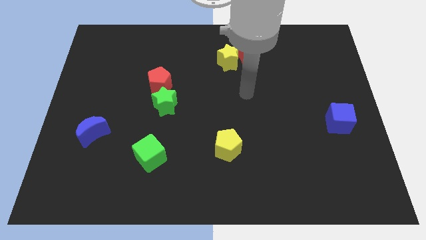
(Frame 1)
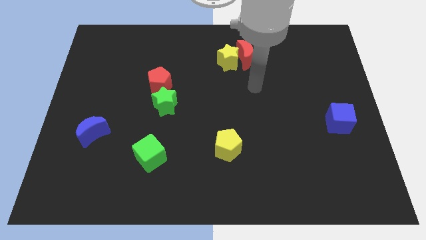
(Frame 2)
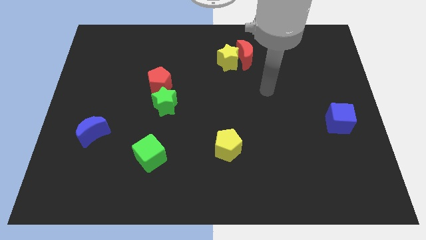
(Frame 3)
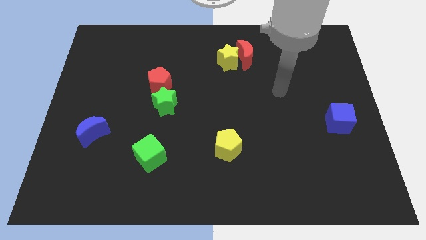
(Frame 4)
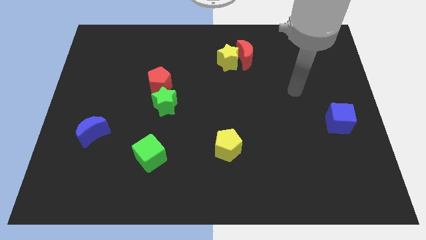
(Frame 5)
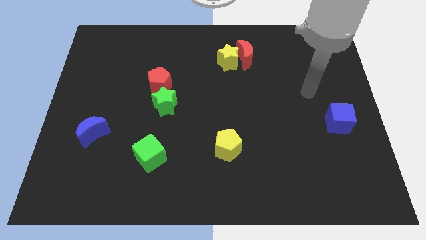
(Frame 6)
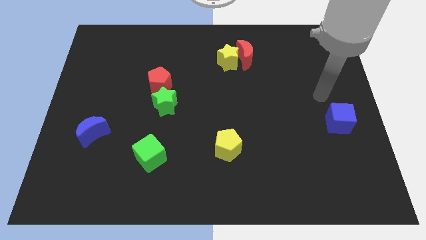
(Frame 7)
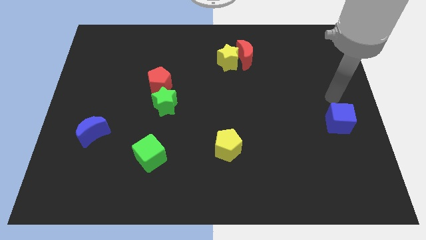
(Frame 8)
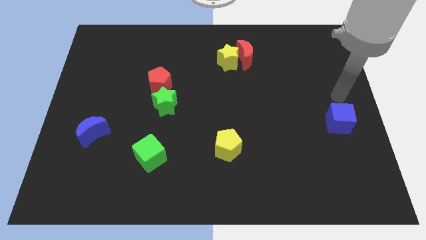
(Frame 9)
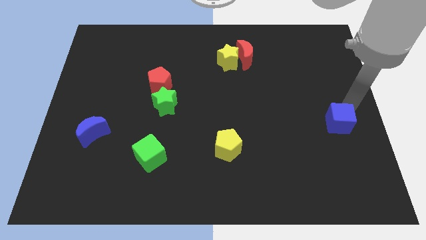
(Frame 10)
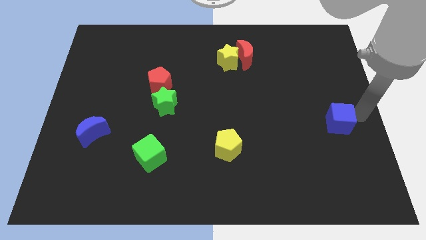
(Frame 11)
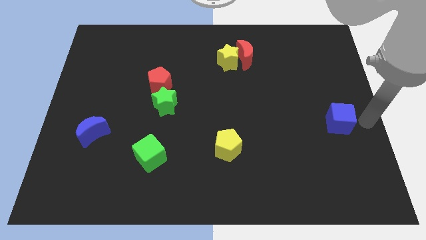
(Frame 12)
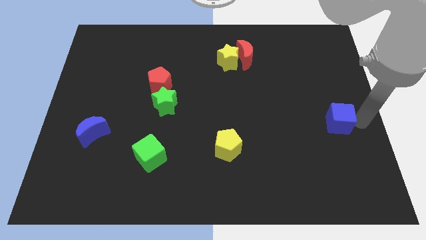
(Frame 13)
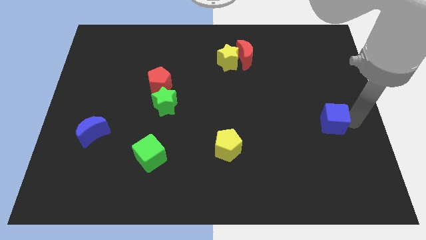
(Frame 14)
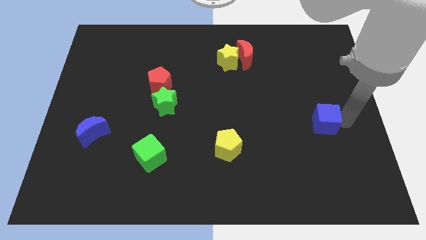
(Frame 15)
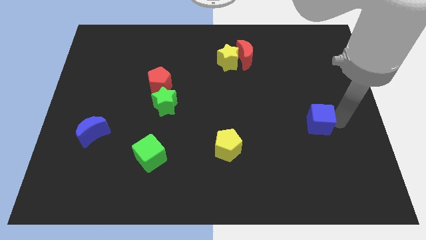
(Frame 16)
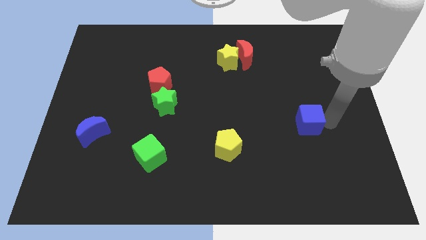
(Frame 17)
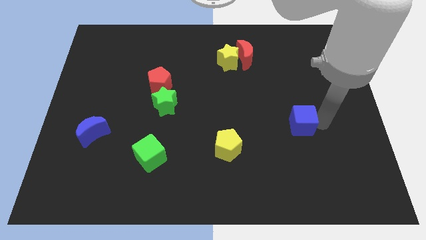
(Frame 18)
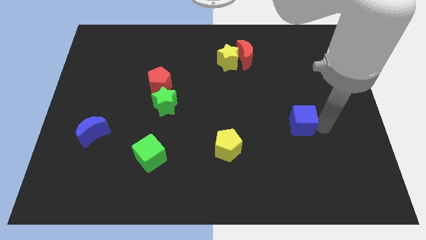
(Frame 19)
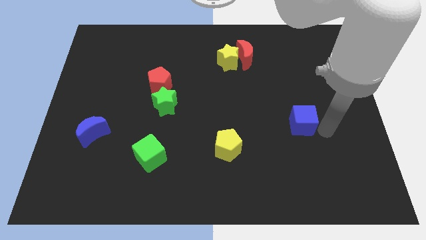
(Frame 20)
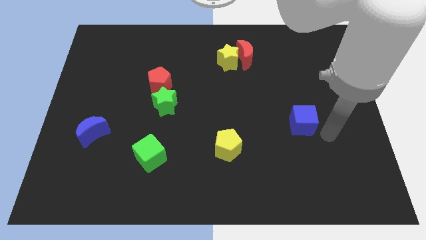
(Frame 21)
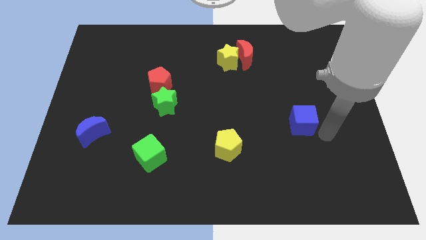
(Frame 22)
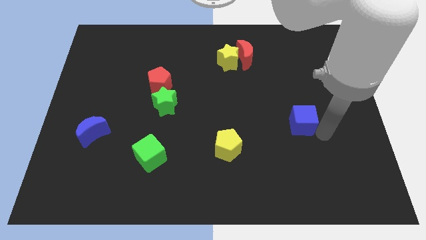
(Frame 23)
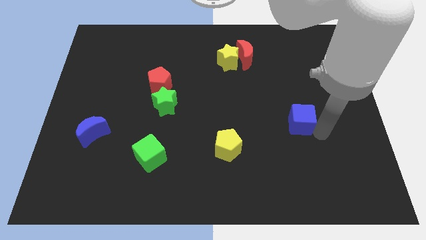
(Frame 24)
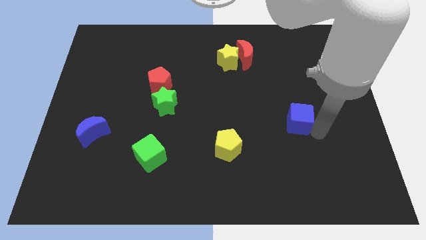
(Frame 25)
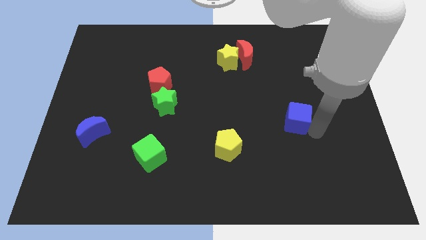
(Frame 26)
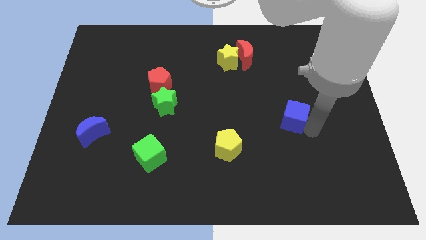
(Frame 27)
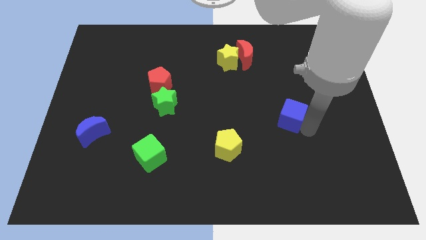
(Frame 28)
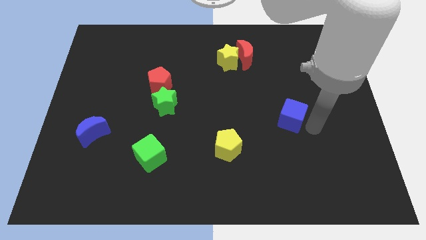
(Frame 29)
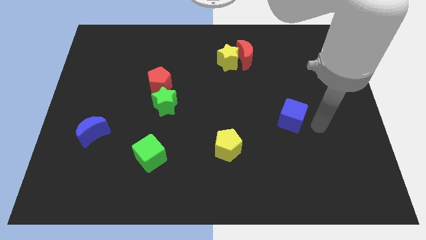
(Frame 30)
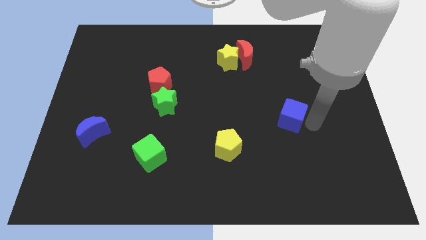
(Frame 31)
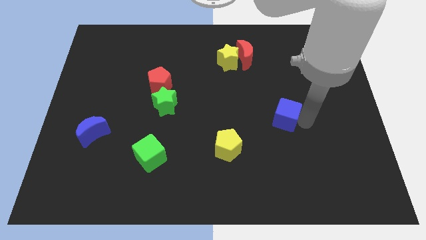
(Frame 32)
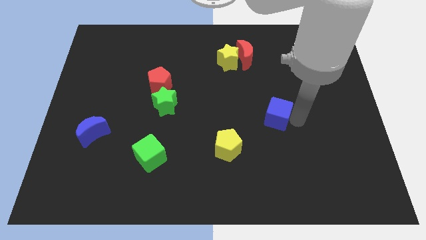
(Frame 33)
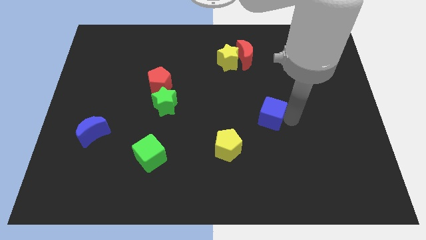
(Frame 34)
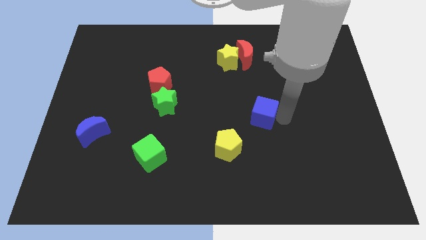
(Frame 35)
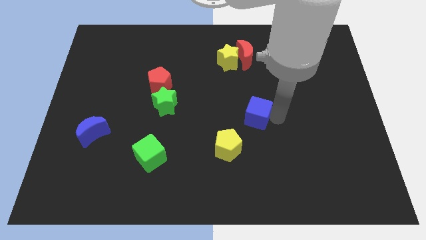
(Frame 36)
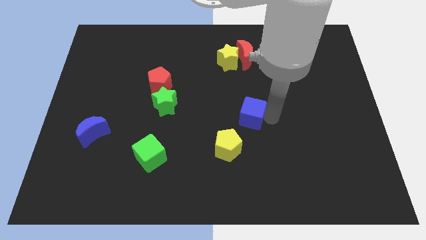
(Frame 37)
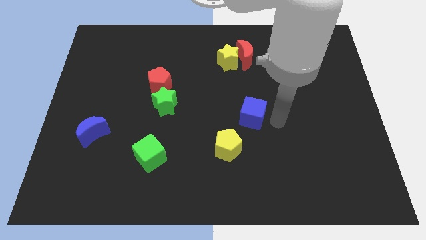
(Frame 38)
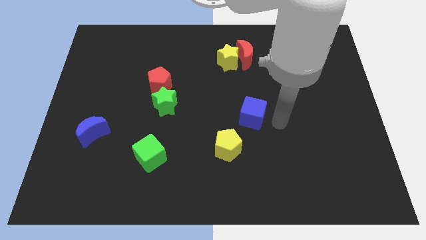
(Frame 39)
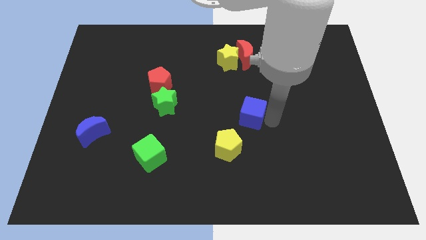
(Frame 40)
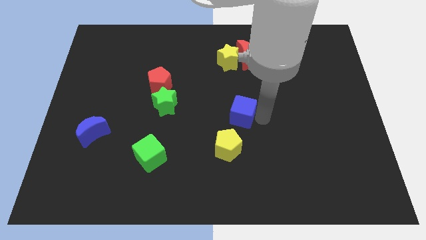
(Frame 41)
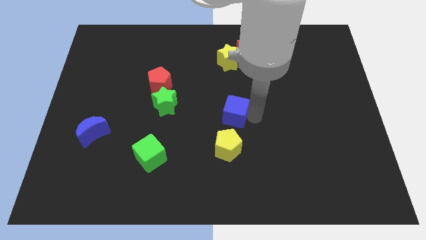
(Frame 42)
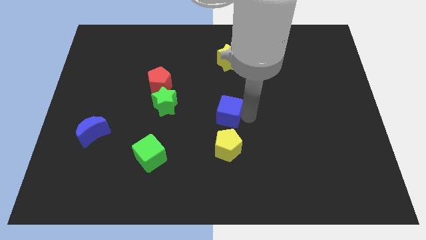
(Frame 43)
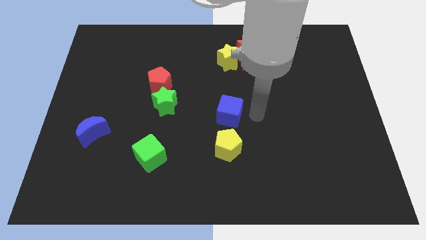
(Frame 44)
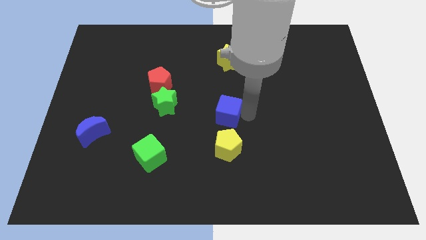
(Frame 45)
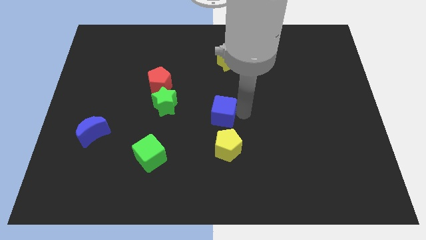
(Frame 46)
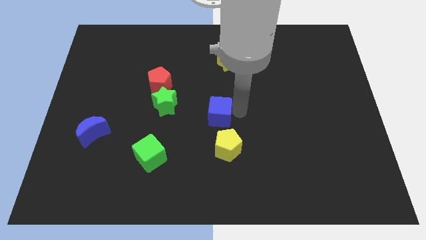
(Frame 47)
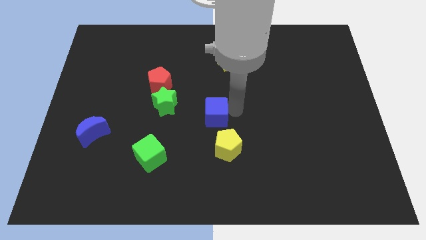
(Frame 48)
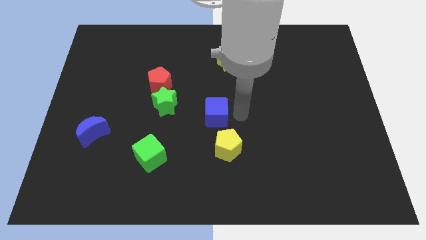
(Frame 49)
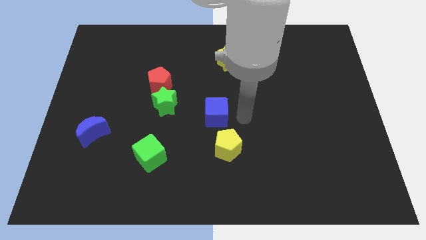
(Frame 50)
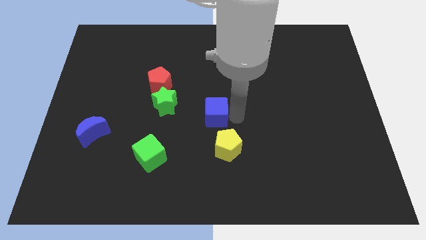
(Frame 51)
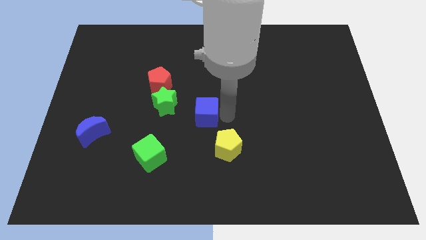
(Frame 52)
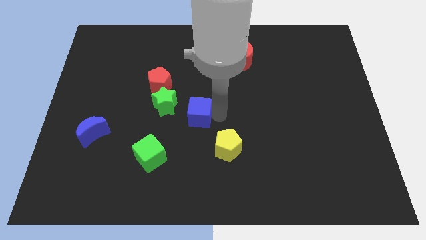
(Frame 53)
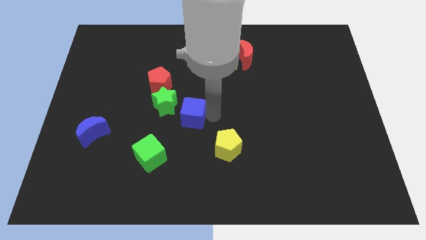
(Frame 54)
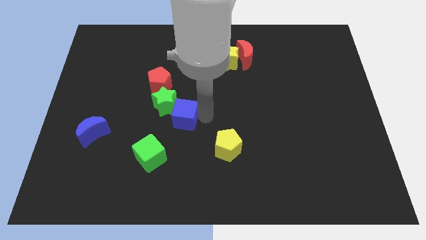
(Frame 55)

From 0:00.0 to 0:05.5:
move the blue cube close to the green star

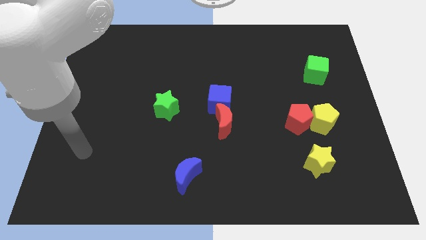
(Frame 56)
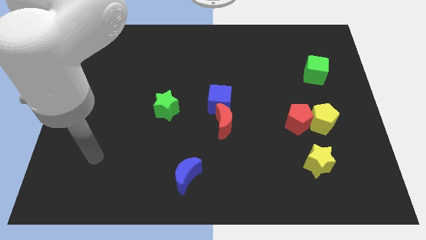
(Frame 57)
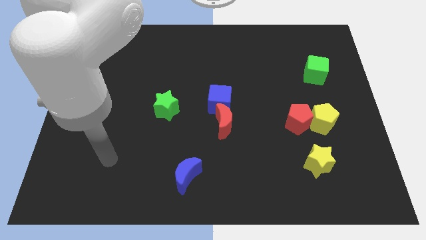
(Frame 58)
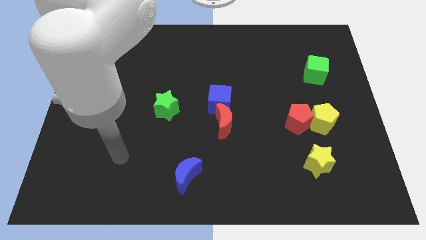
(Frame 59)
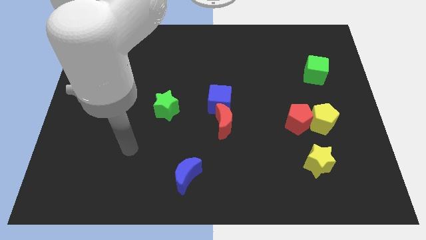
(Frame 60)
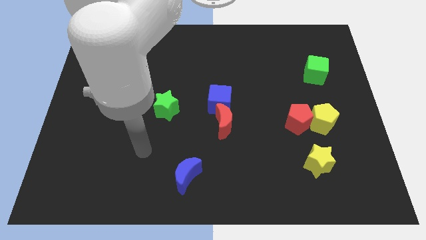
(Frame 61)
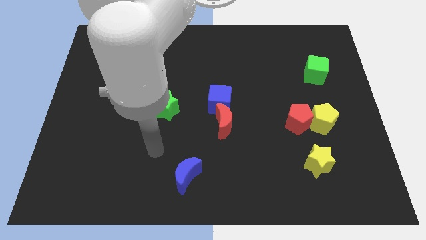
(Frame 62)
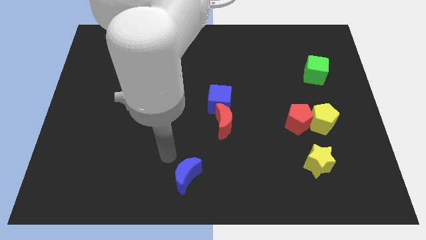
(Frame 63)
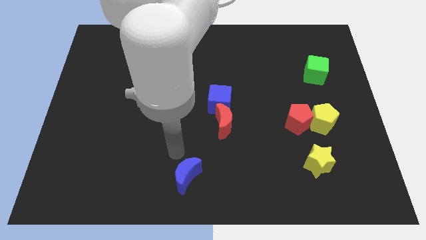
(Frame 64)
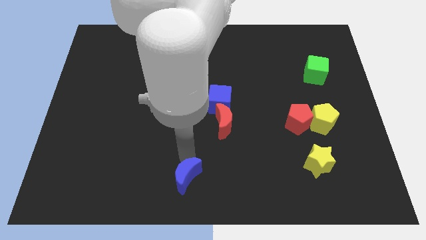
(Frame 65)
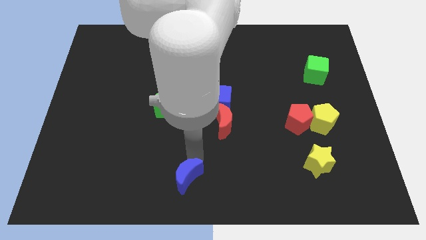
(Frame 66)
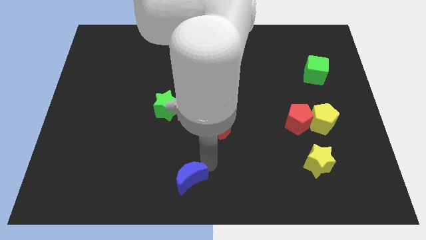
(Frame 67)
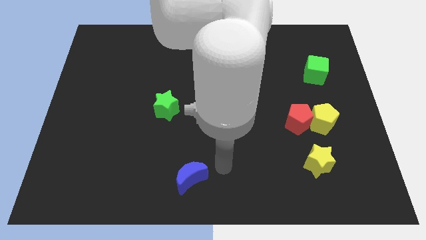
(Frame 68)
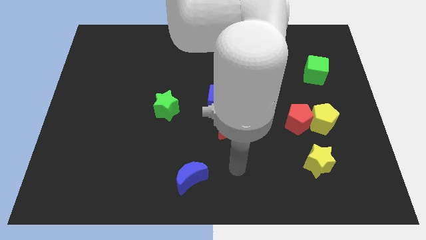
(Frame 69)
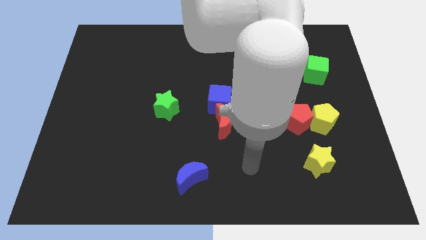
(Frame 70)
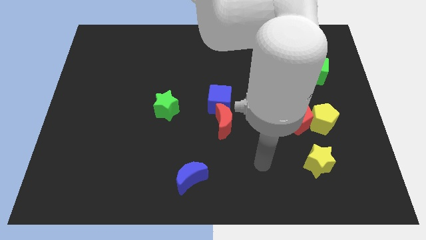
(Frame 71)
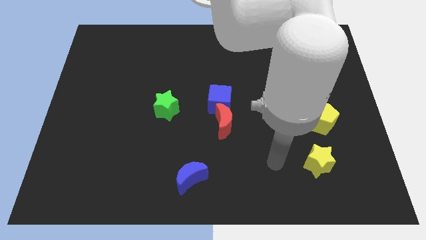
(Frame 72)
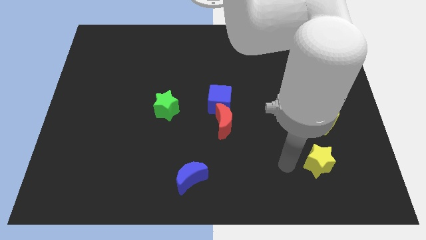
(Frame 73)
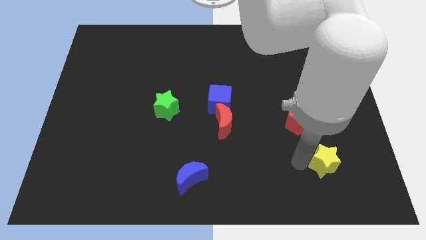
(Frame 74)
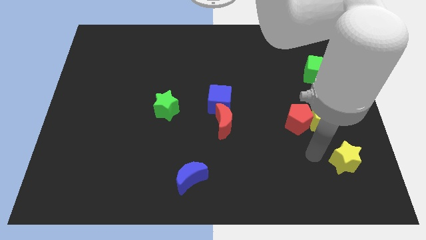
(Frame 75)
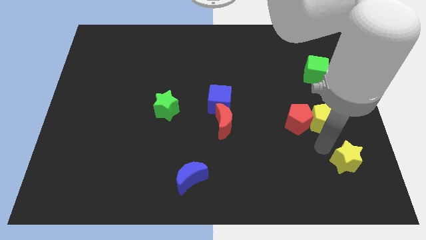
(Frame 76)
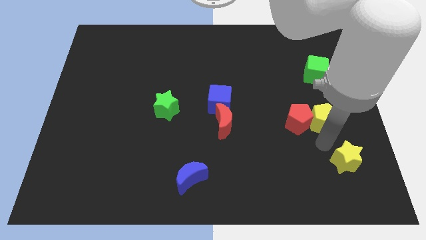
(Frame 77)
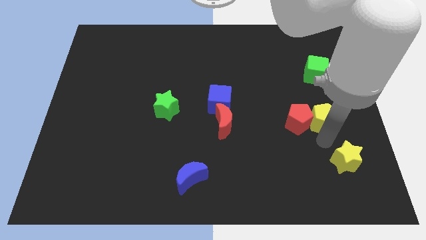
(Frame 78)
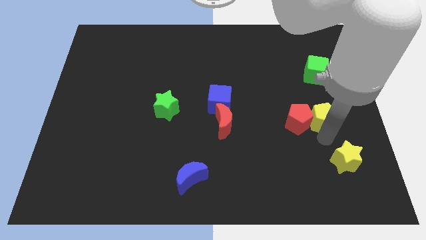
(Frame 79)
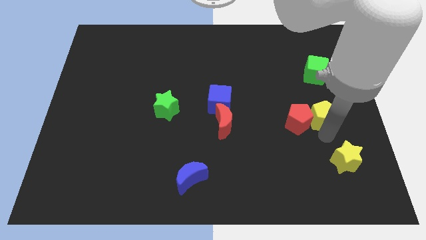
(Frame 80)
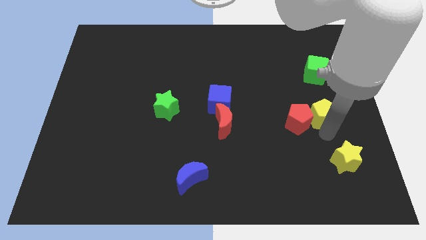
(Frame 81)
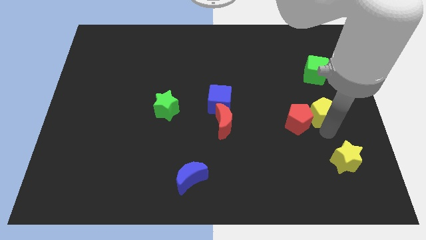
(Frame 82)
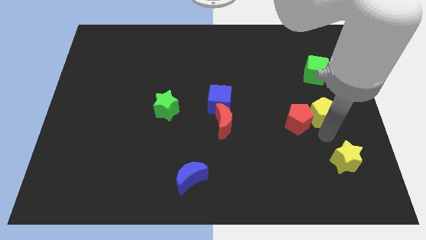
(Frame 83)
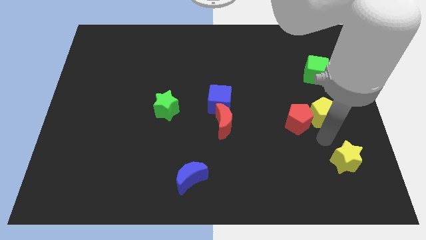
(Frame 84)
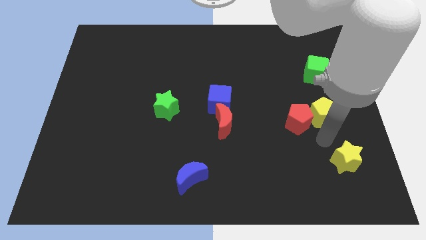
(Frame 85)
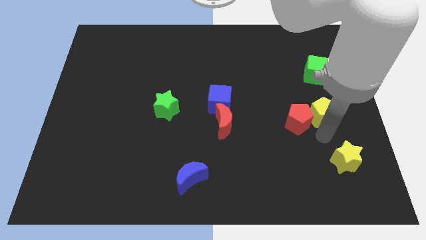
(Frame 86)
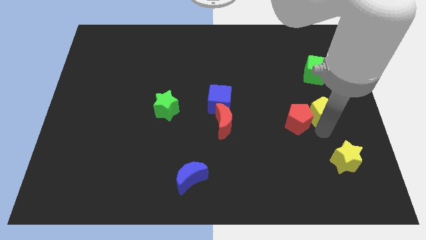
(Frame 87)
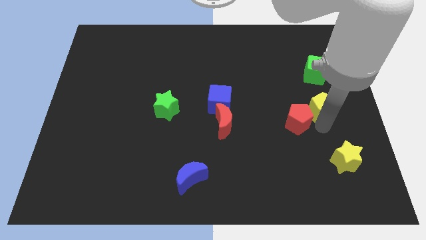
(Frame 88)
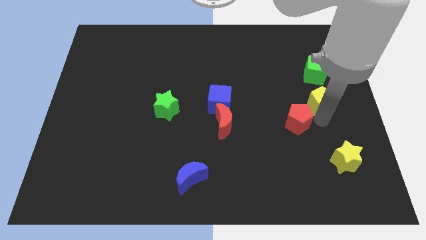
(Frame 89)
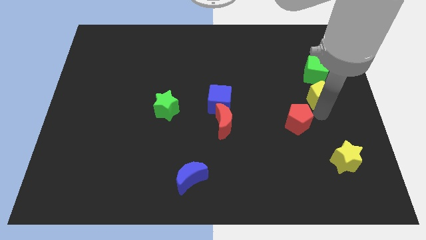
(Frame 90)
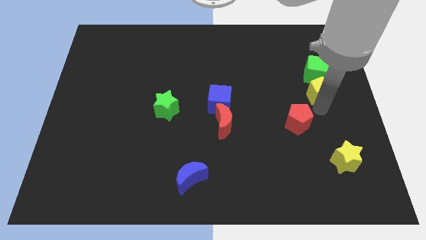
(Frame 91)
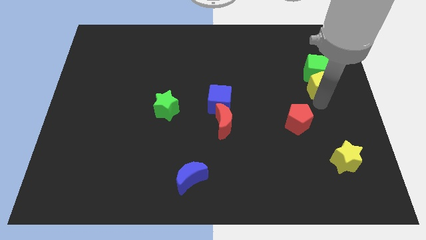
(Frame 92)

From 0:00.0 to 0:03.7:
slide the yellow pentagon to the green cube
